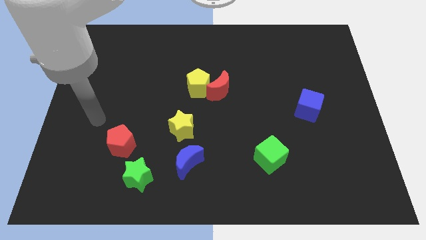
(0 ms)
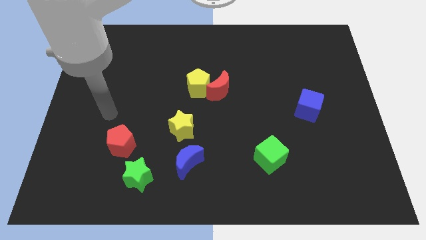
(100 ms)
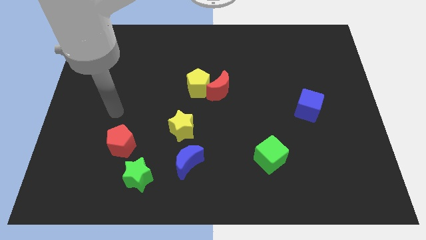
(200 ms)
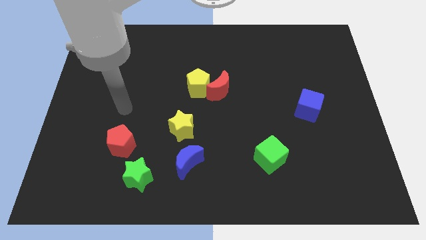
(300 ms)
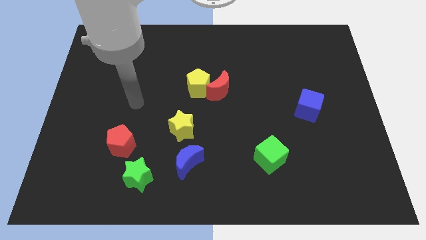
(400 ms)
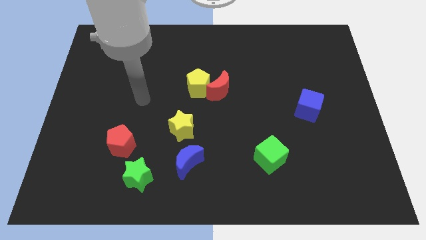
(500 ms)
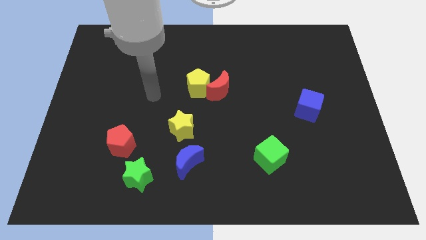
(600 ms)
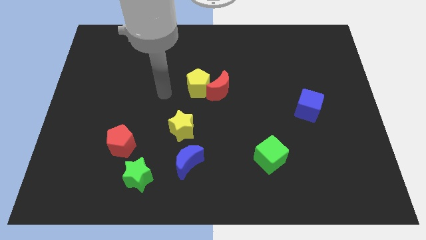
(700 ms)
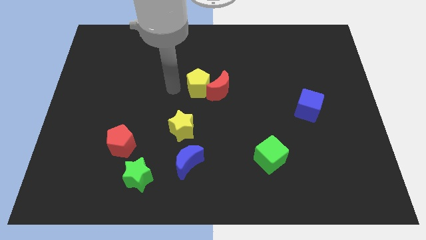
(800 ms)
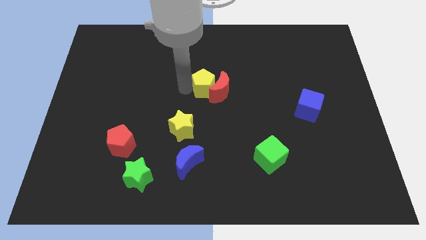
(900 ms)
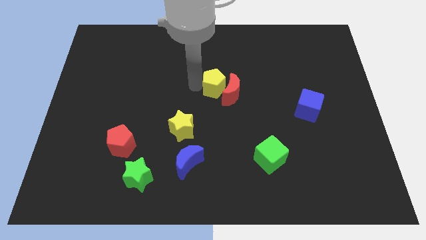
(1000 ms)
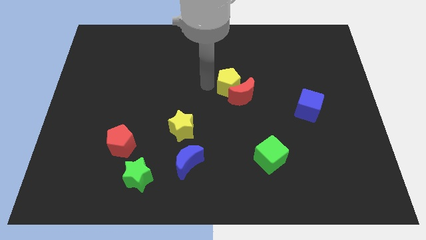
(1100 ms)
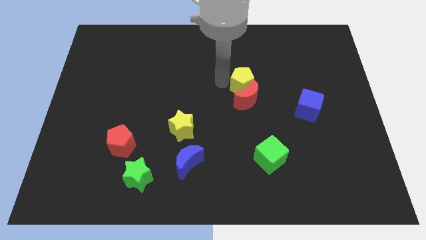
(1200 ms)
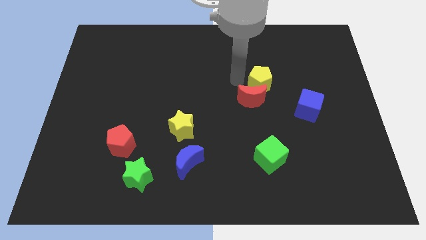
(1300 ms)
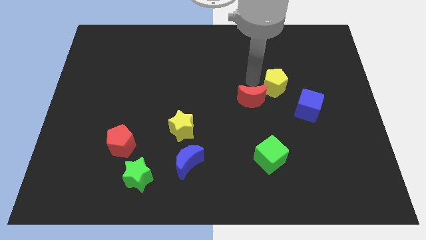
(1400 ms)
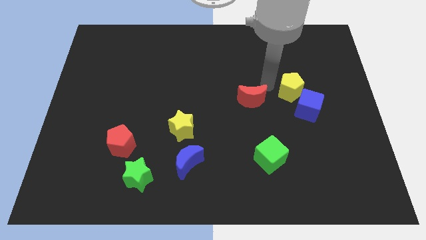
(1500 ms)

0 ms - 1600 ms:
pull the red moon apart from the yellow pentagon

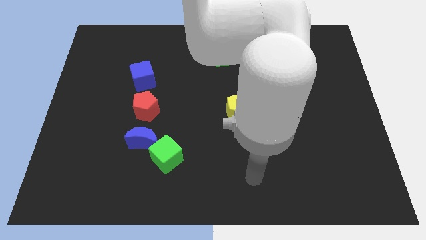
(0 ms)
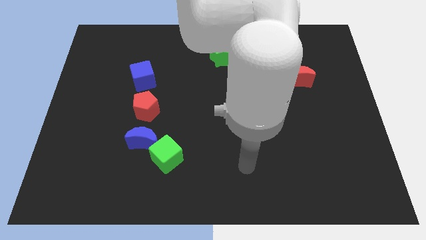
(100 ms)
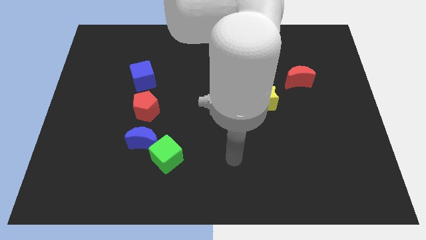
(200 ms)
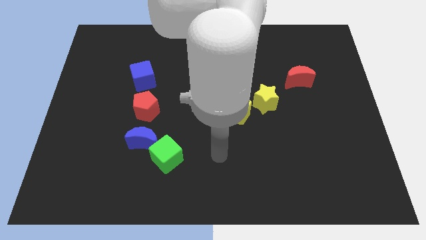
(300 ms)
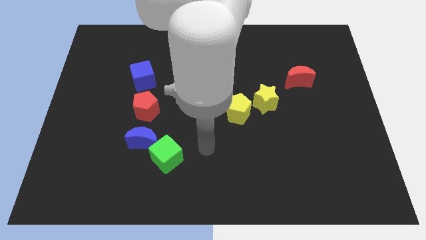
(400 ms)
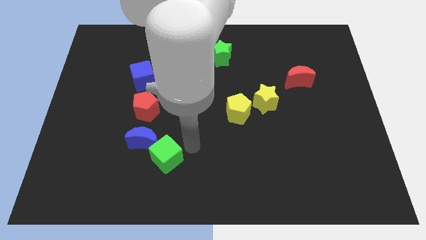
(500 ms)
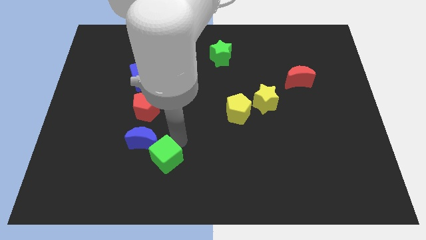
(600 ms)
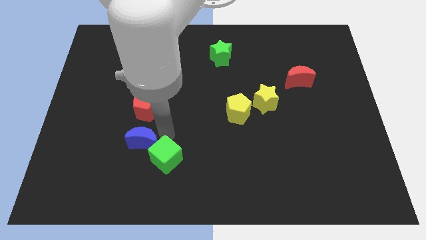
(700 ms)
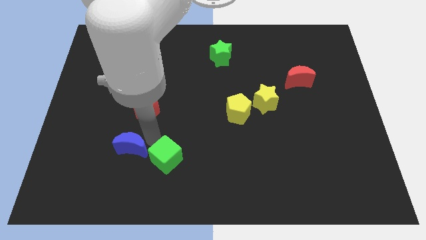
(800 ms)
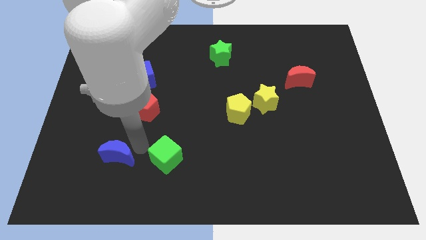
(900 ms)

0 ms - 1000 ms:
pull the green cube apart from the blue moon

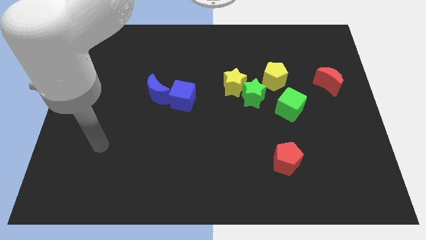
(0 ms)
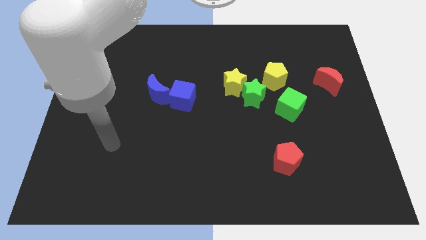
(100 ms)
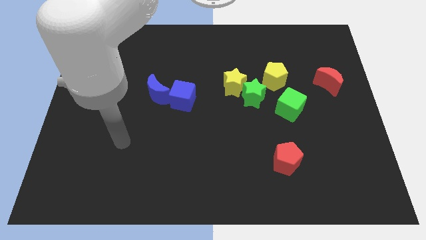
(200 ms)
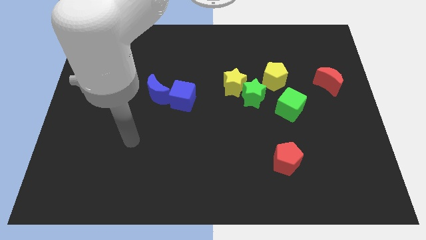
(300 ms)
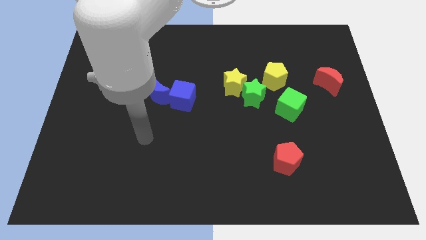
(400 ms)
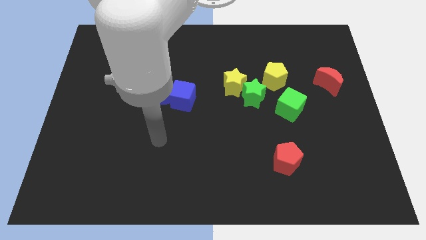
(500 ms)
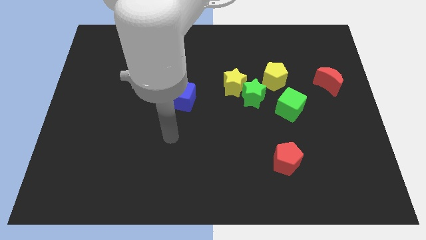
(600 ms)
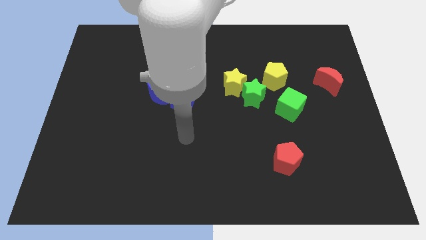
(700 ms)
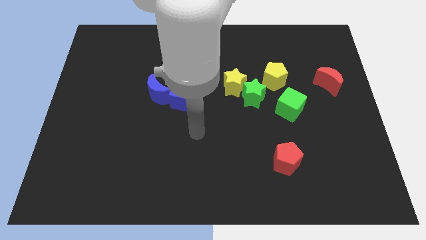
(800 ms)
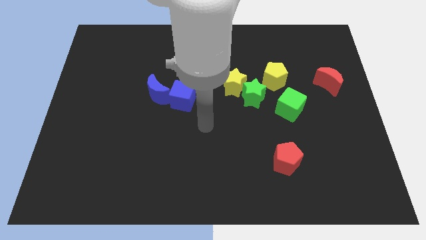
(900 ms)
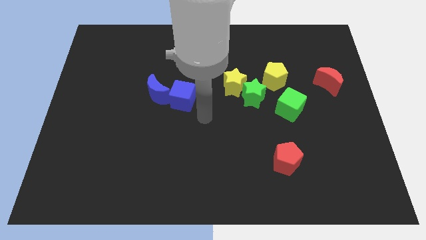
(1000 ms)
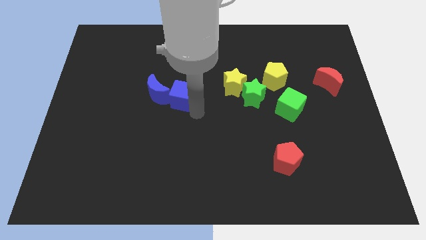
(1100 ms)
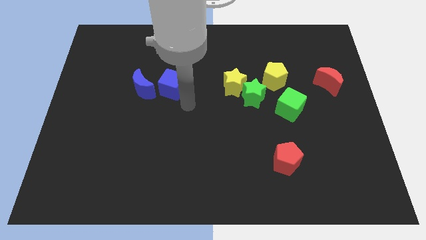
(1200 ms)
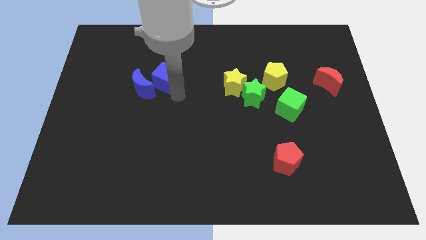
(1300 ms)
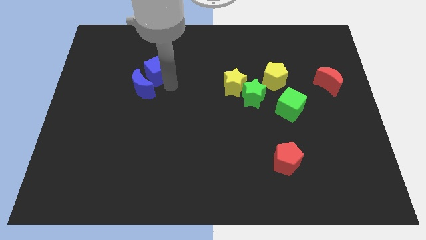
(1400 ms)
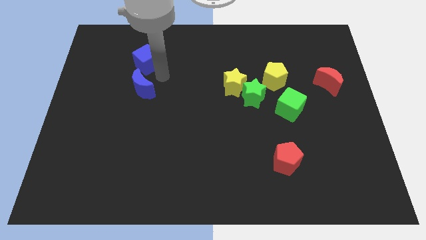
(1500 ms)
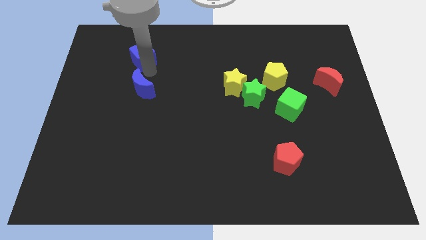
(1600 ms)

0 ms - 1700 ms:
move the blue moon away from the blue cube

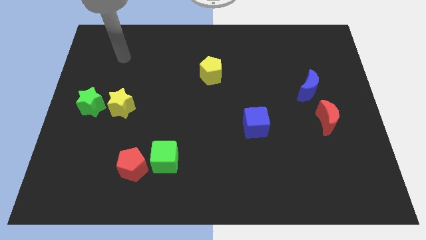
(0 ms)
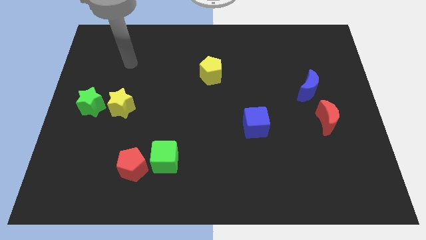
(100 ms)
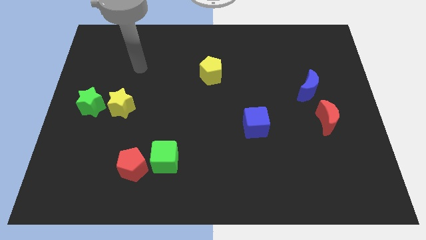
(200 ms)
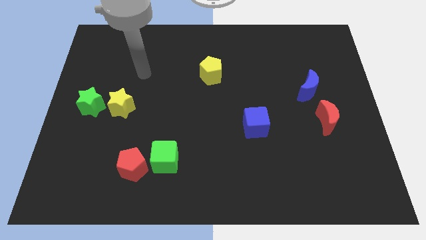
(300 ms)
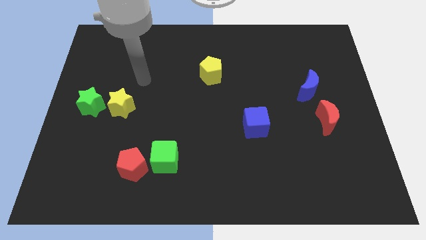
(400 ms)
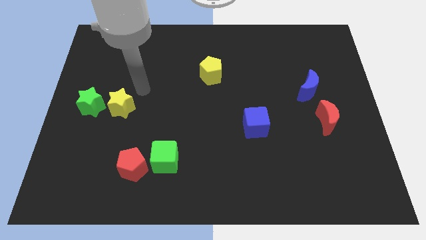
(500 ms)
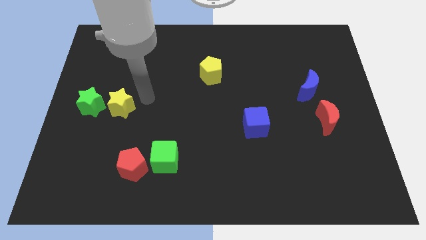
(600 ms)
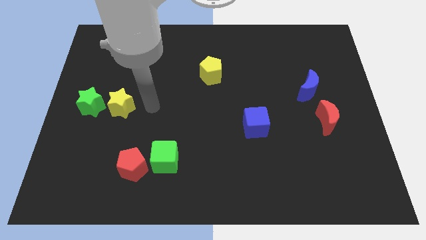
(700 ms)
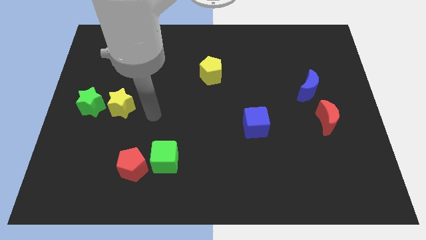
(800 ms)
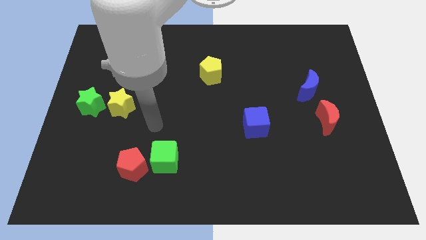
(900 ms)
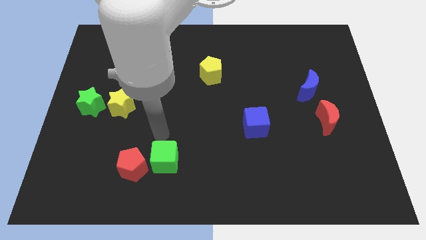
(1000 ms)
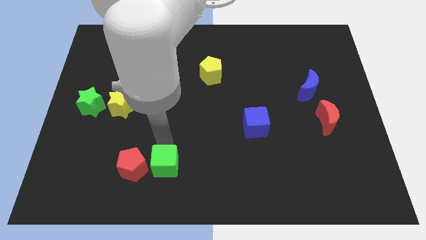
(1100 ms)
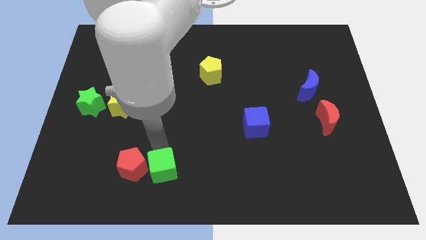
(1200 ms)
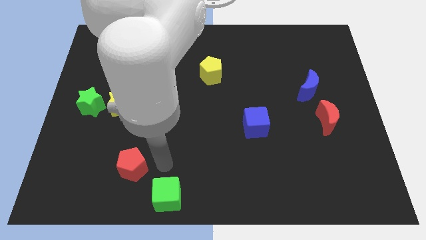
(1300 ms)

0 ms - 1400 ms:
pull the red pentagon apart from the green cube

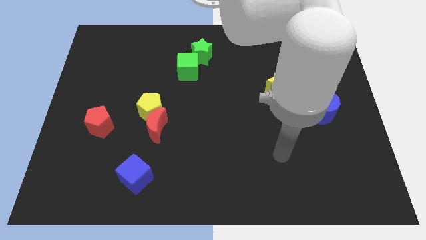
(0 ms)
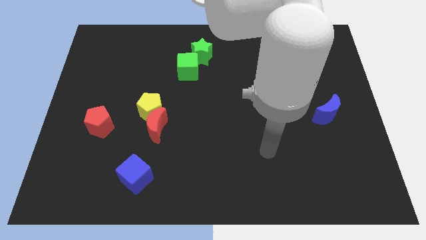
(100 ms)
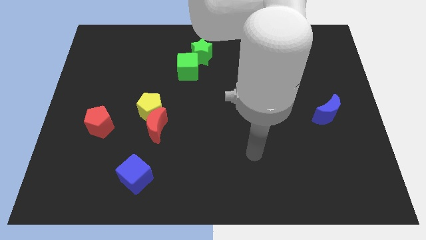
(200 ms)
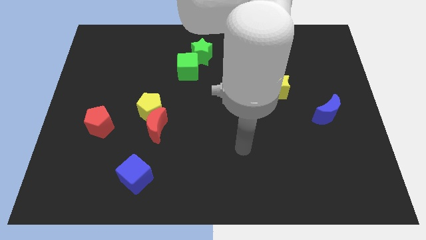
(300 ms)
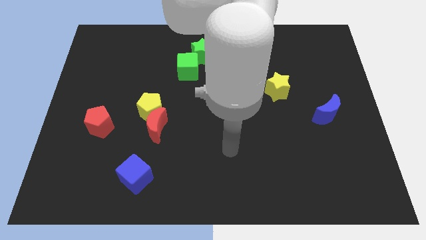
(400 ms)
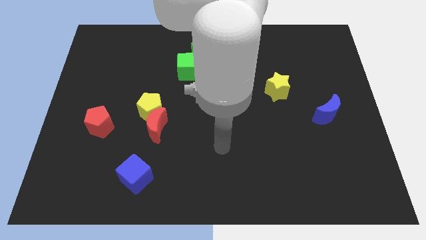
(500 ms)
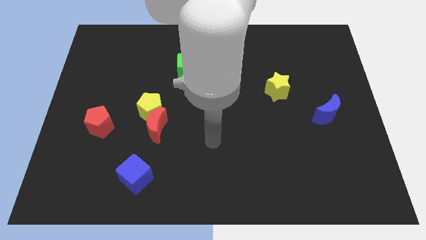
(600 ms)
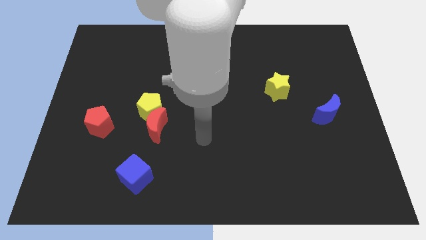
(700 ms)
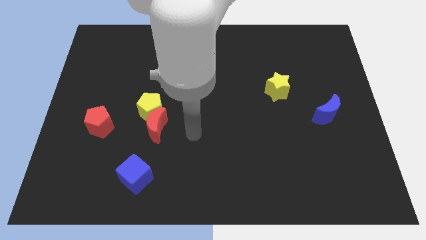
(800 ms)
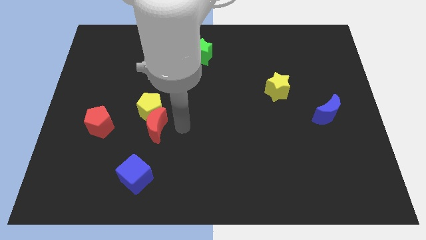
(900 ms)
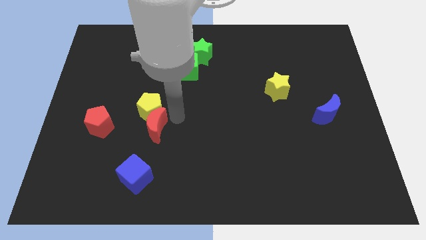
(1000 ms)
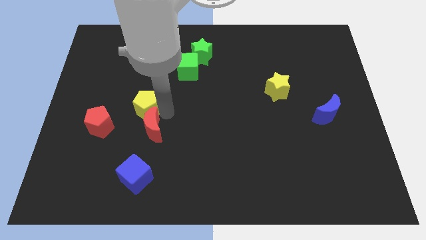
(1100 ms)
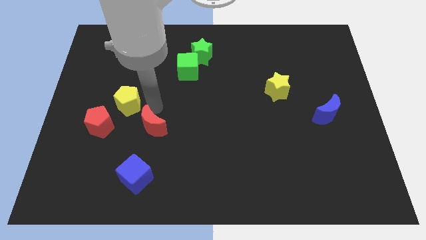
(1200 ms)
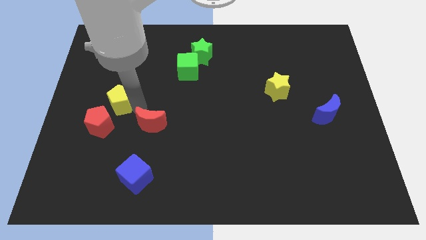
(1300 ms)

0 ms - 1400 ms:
move the red moon away from the yellow pentagon

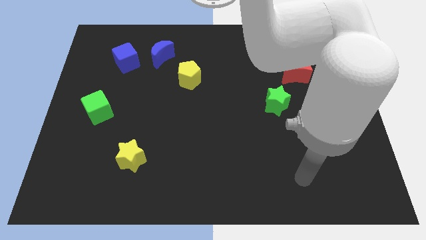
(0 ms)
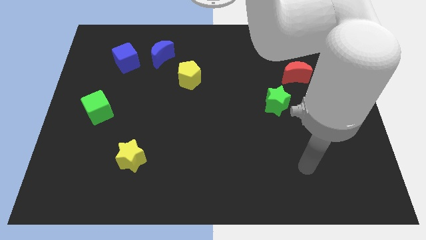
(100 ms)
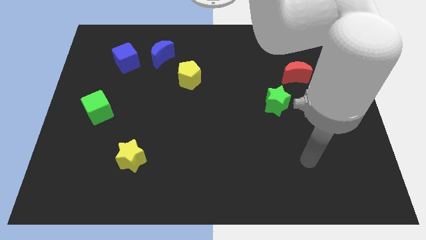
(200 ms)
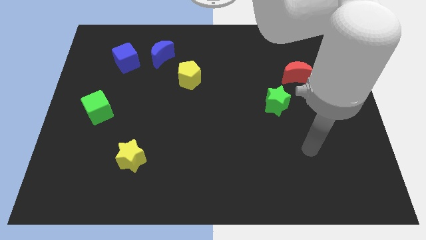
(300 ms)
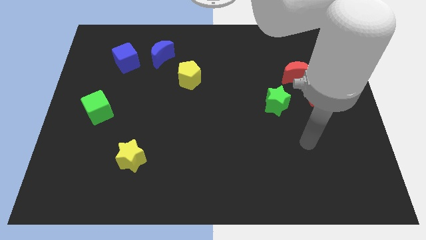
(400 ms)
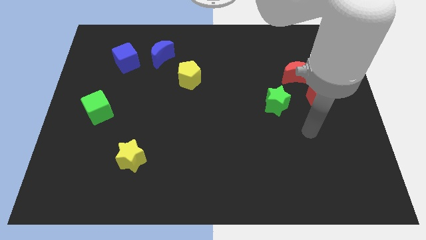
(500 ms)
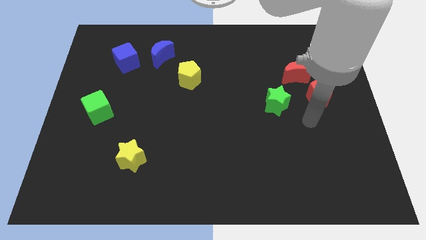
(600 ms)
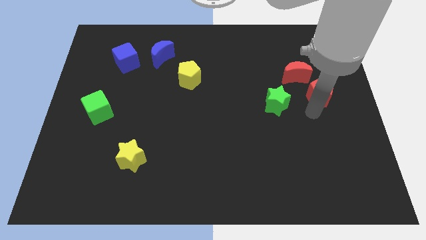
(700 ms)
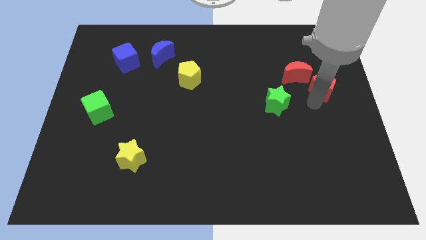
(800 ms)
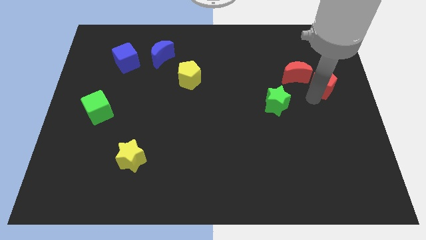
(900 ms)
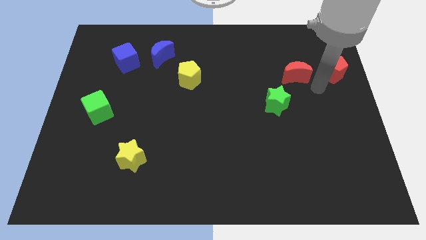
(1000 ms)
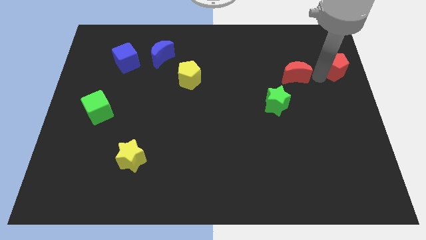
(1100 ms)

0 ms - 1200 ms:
move the red moon away from the red pentagon

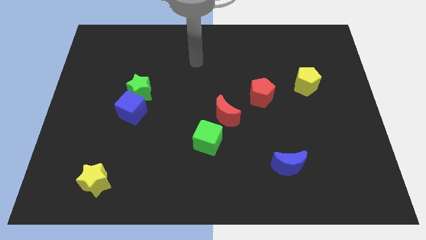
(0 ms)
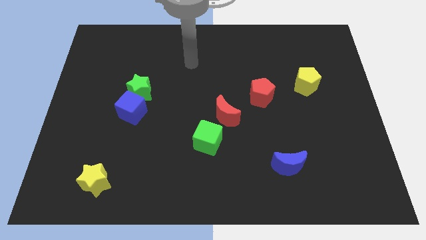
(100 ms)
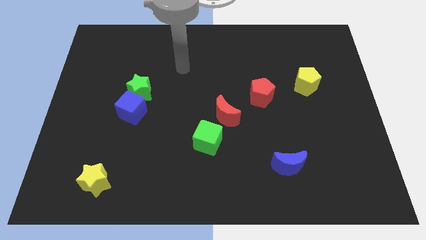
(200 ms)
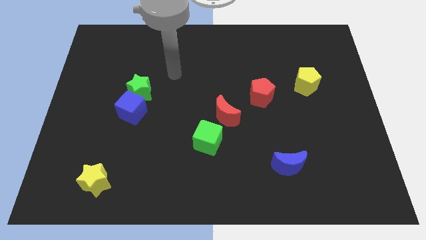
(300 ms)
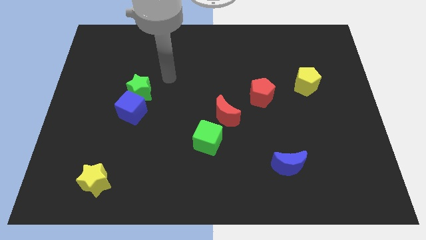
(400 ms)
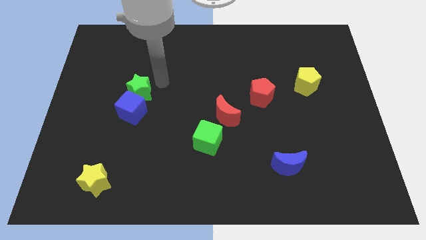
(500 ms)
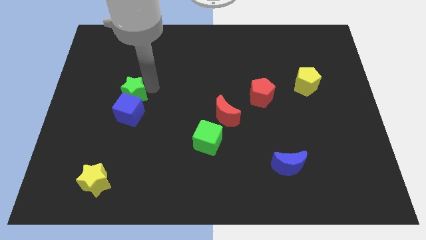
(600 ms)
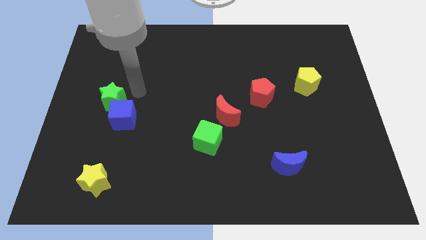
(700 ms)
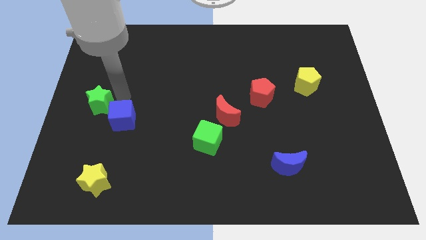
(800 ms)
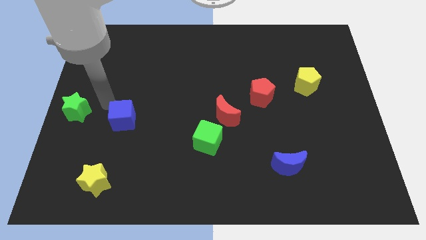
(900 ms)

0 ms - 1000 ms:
separate the blue cube from the green star
